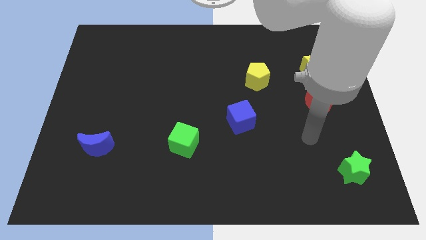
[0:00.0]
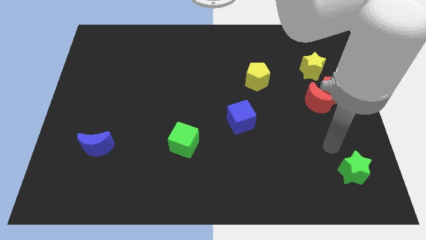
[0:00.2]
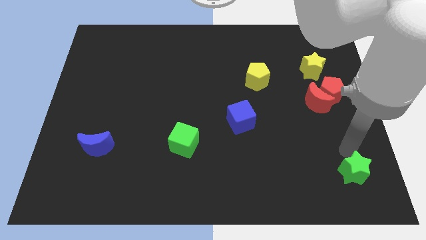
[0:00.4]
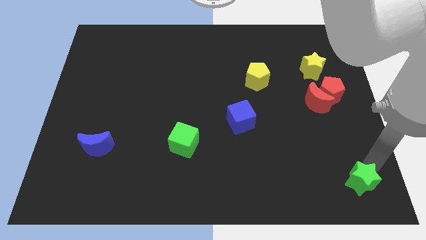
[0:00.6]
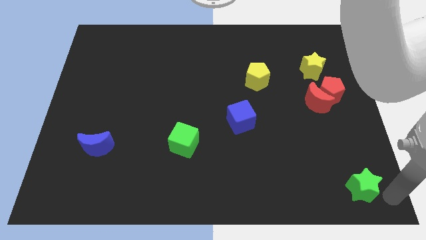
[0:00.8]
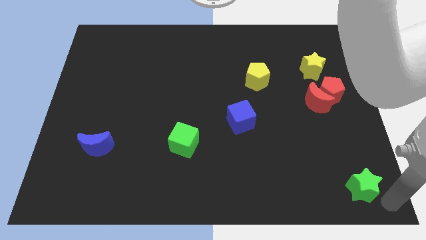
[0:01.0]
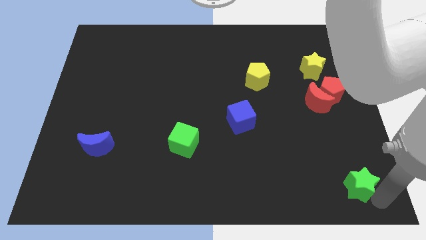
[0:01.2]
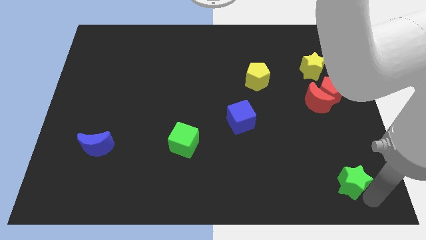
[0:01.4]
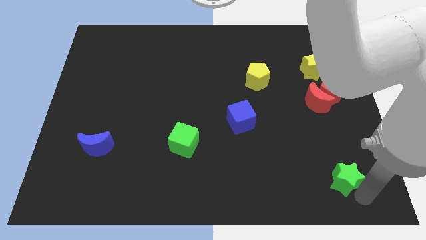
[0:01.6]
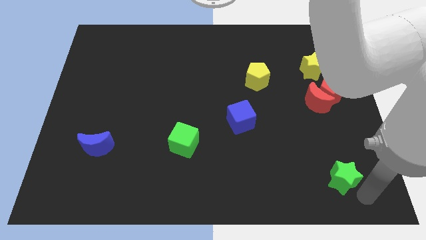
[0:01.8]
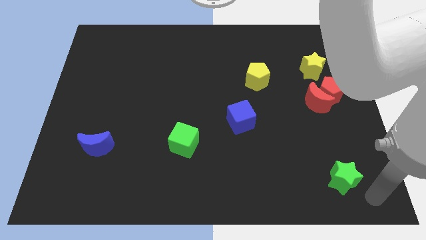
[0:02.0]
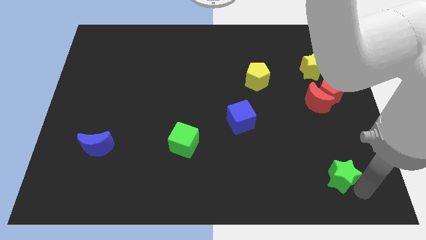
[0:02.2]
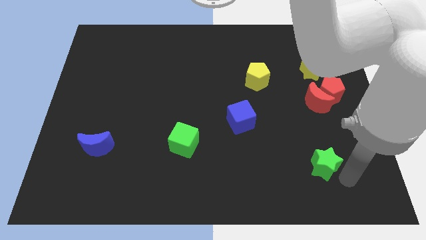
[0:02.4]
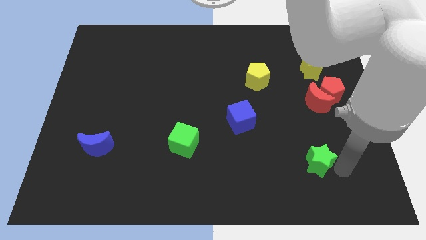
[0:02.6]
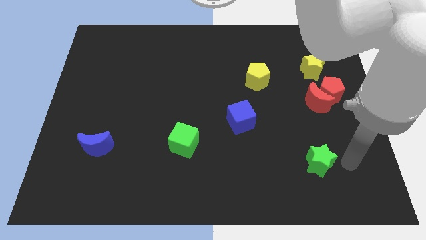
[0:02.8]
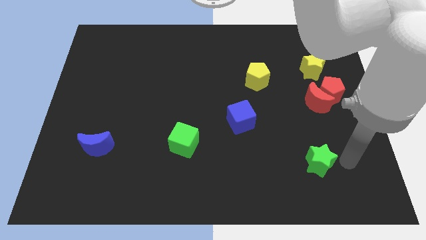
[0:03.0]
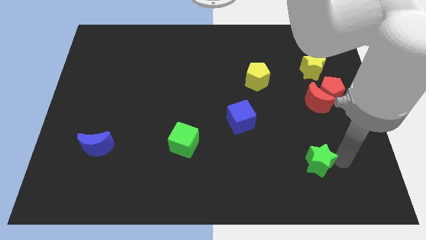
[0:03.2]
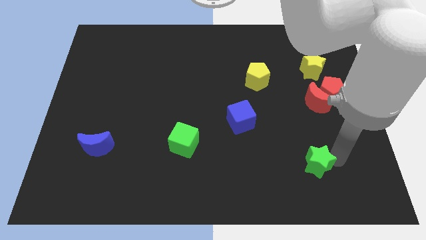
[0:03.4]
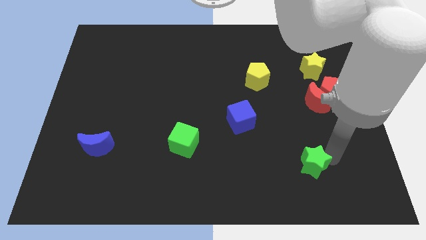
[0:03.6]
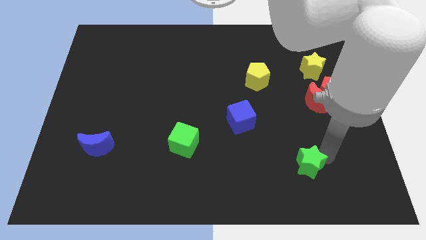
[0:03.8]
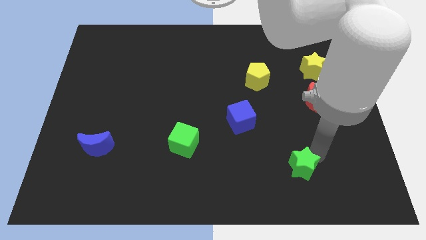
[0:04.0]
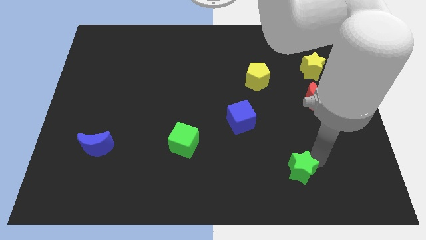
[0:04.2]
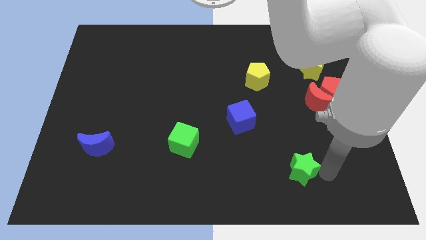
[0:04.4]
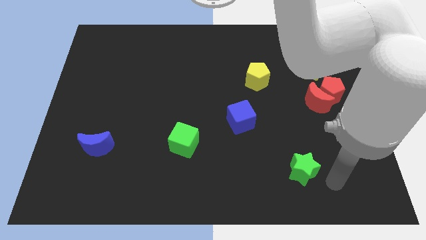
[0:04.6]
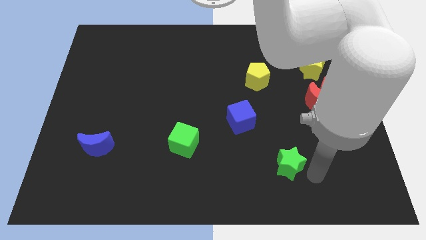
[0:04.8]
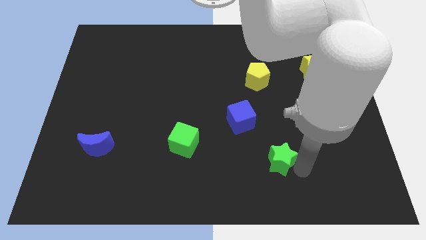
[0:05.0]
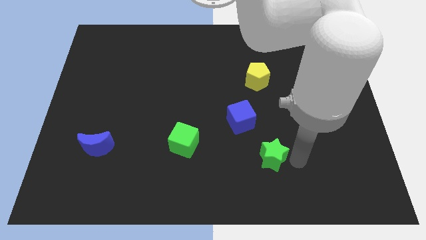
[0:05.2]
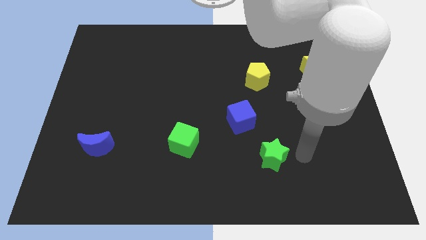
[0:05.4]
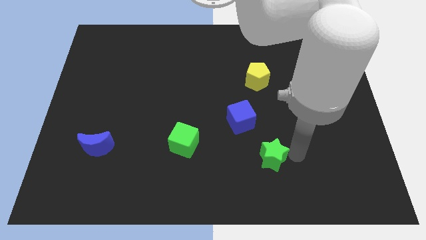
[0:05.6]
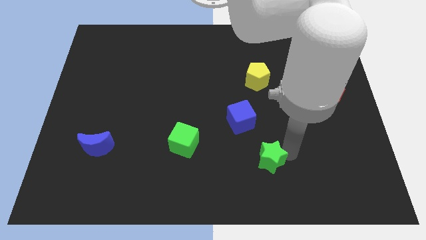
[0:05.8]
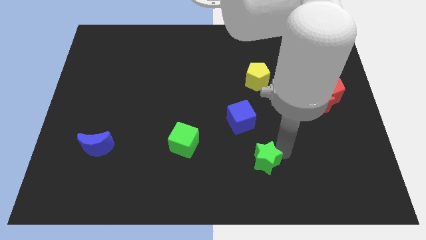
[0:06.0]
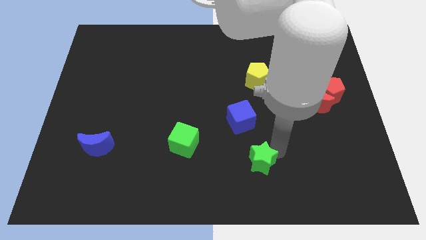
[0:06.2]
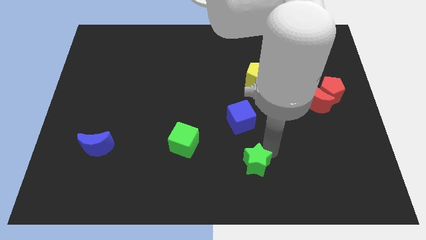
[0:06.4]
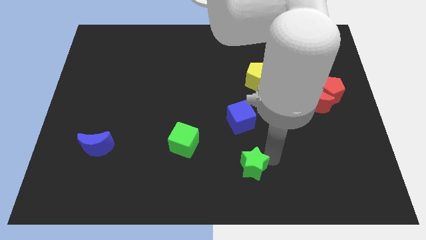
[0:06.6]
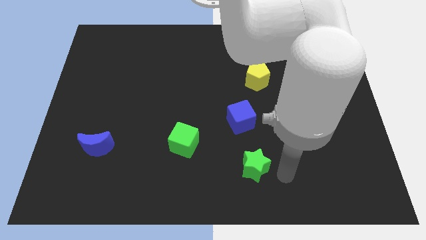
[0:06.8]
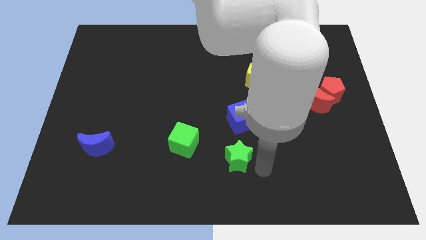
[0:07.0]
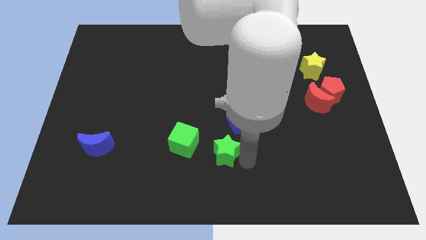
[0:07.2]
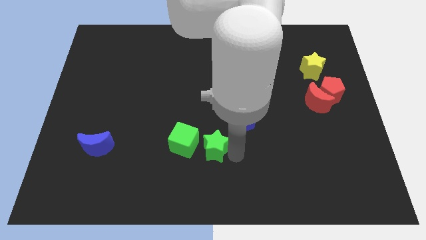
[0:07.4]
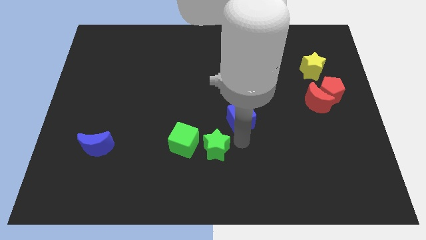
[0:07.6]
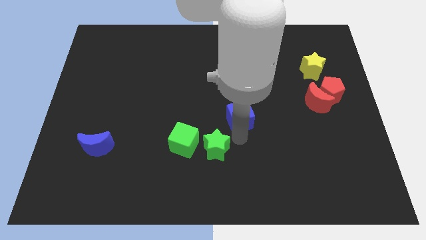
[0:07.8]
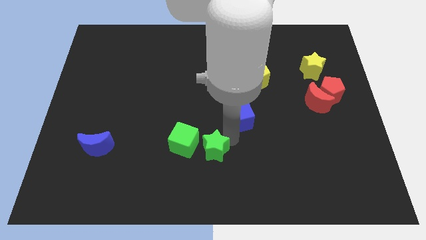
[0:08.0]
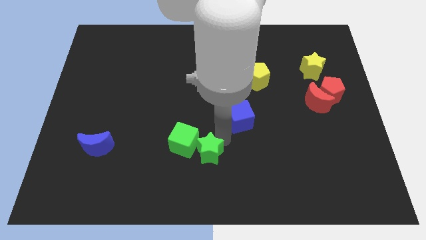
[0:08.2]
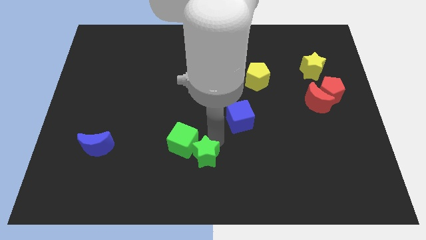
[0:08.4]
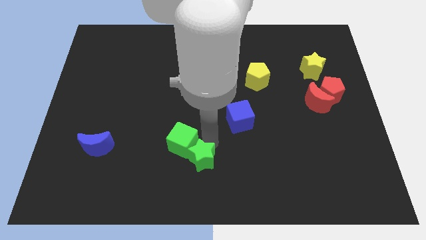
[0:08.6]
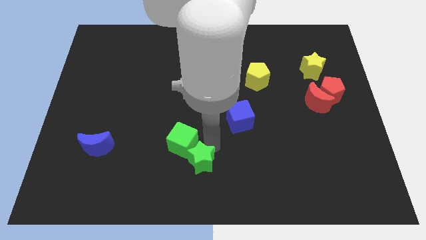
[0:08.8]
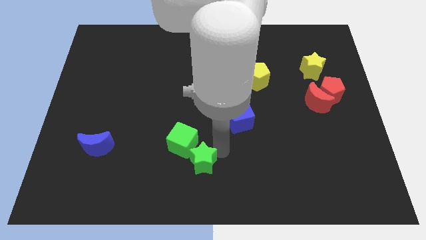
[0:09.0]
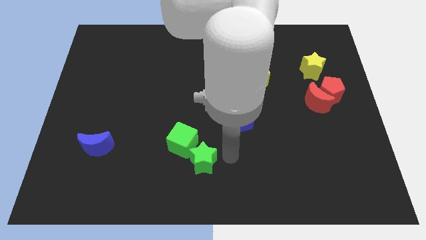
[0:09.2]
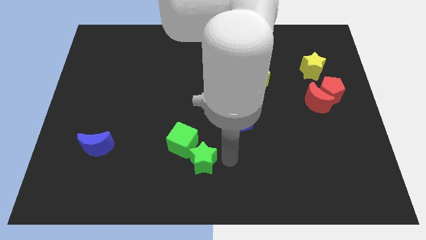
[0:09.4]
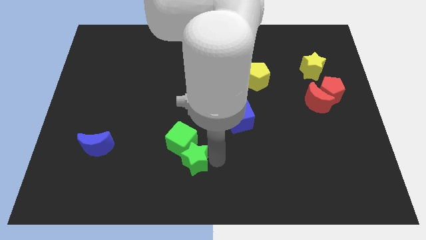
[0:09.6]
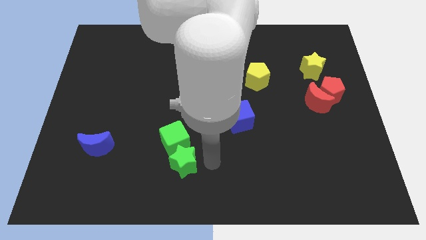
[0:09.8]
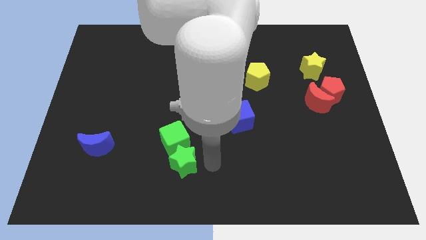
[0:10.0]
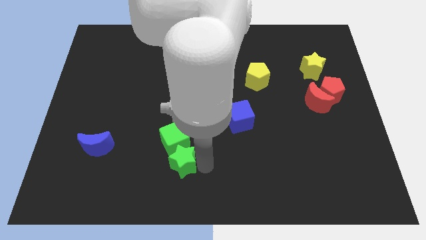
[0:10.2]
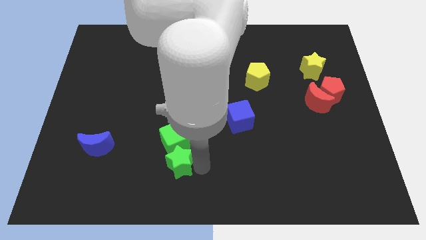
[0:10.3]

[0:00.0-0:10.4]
put the green star to the bottom left of the green cube

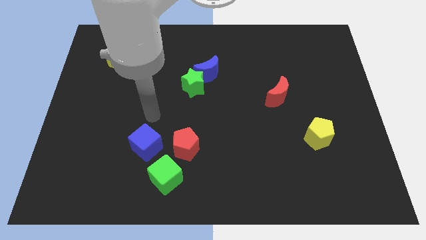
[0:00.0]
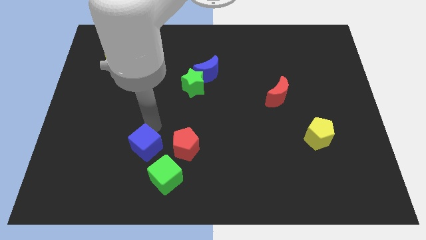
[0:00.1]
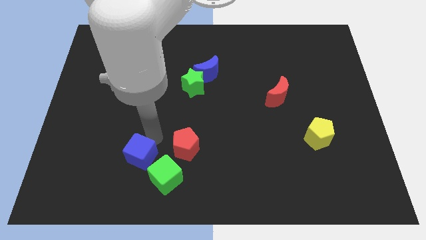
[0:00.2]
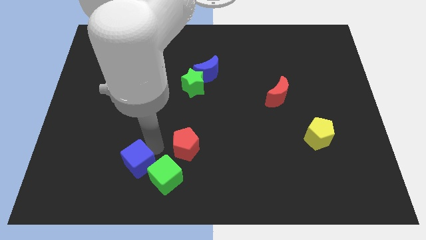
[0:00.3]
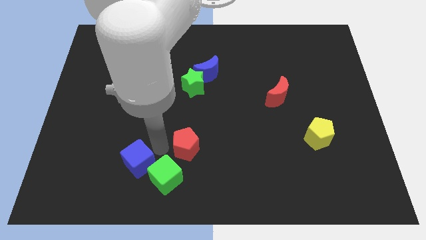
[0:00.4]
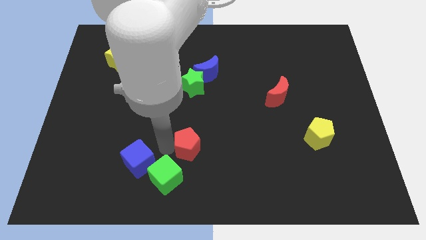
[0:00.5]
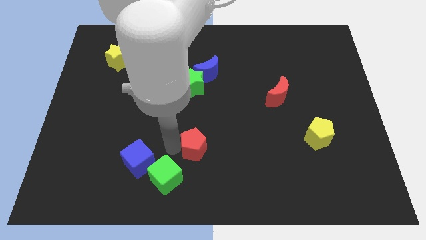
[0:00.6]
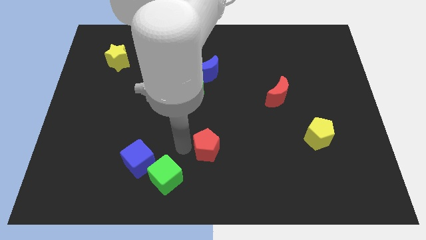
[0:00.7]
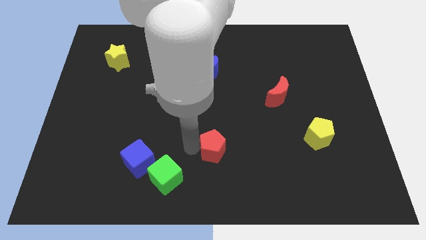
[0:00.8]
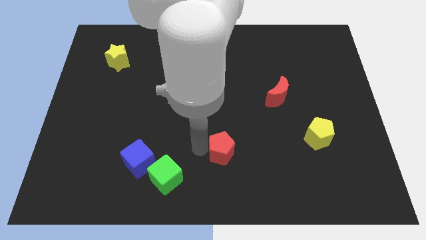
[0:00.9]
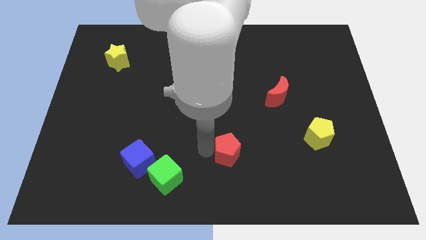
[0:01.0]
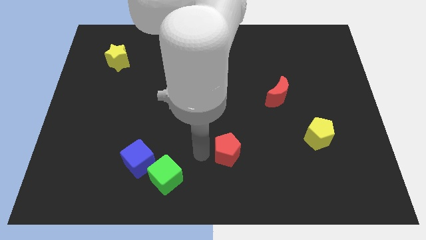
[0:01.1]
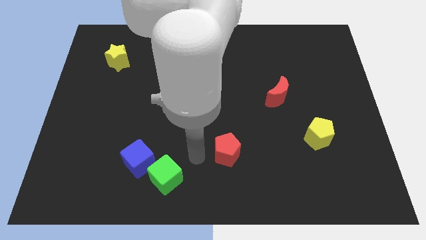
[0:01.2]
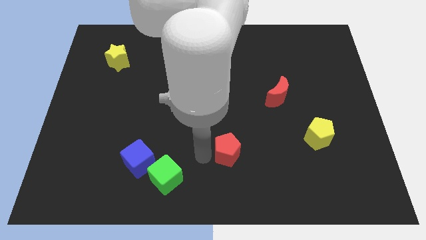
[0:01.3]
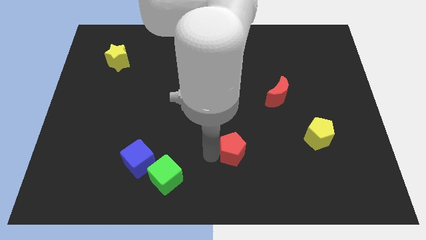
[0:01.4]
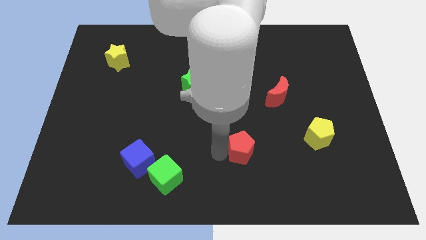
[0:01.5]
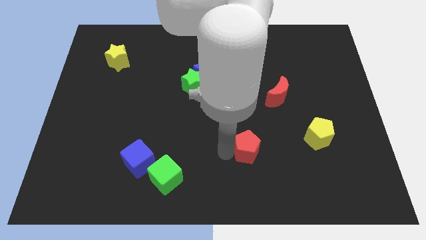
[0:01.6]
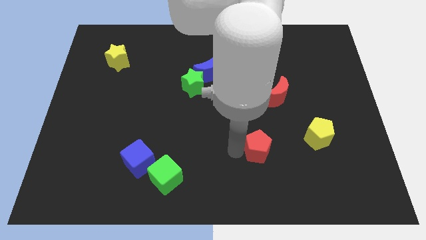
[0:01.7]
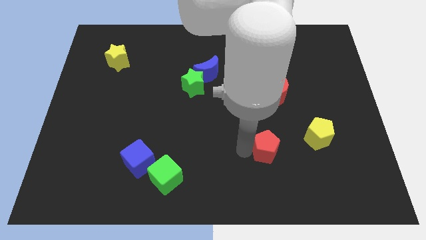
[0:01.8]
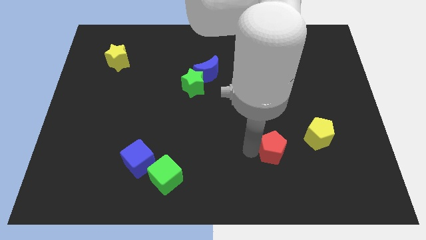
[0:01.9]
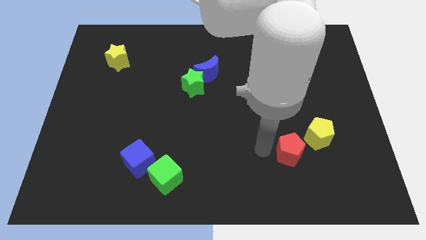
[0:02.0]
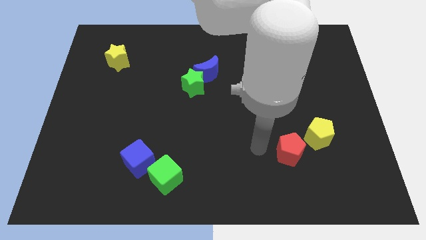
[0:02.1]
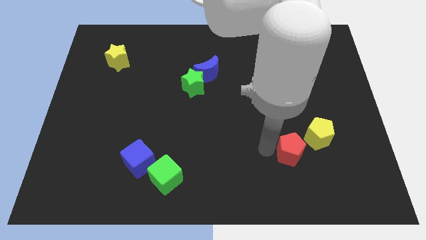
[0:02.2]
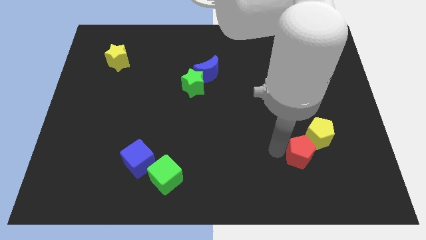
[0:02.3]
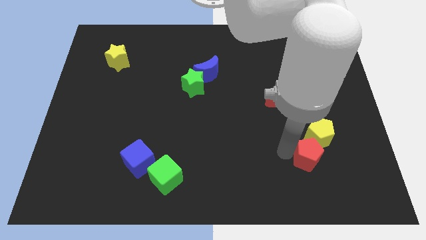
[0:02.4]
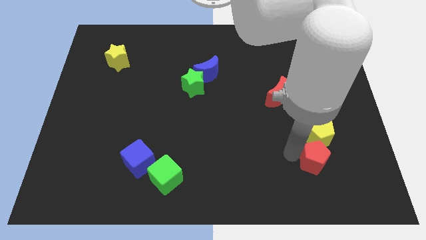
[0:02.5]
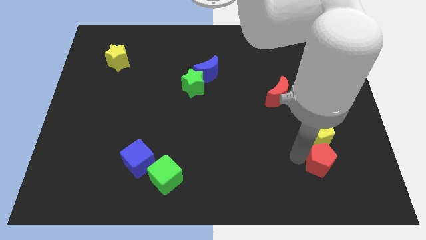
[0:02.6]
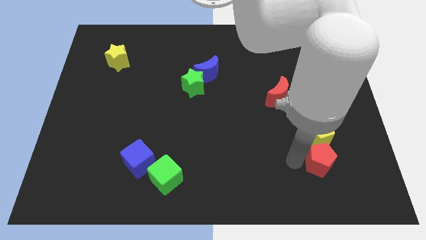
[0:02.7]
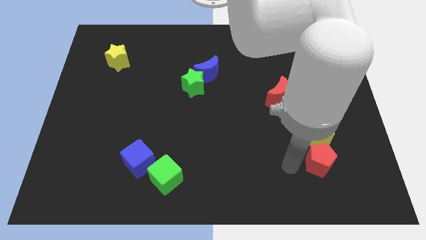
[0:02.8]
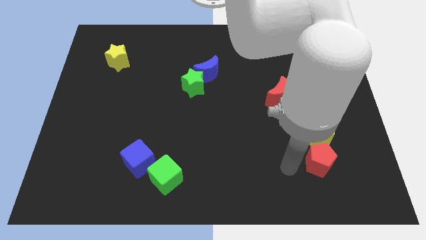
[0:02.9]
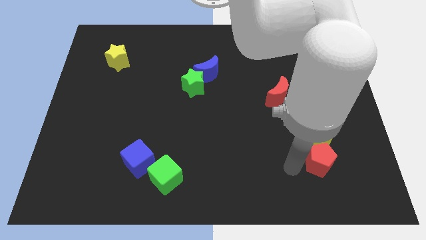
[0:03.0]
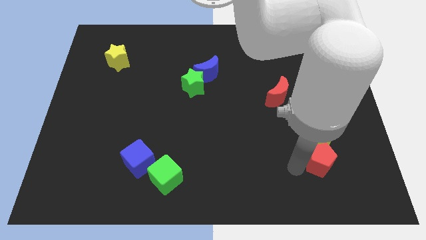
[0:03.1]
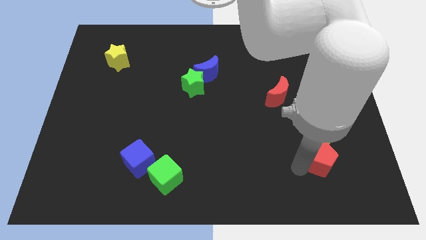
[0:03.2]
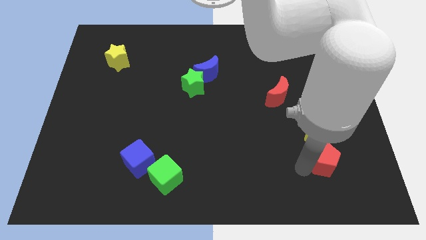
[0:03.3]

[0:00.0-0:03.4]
move the red pentagon diagonally down and to the right of the yellow pentagon
